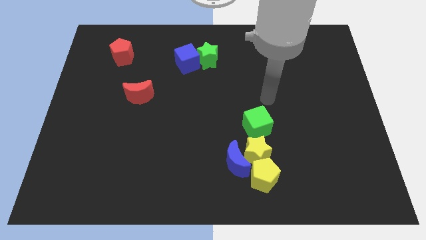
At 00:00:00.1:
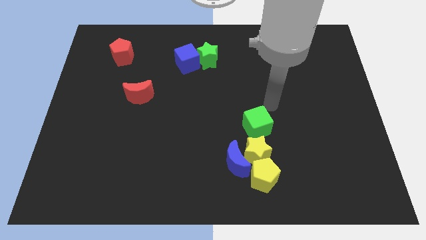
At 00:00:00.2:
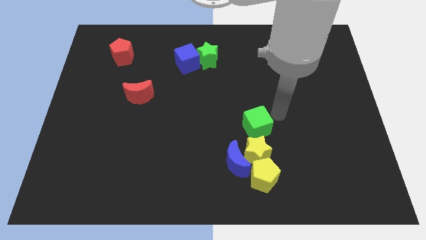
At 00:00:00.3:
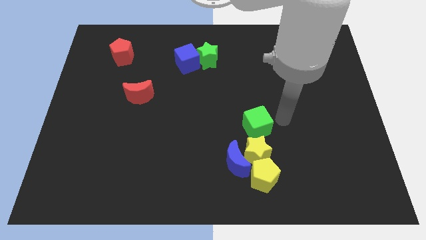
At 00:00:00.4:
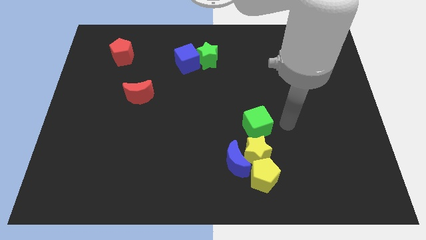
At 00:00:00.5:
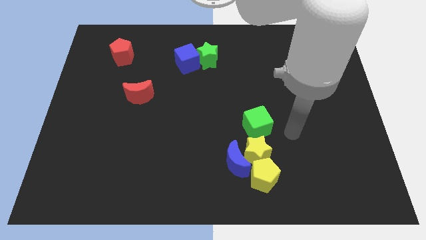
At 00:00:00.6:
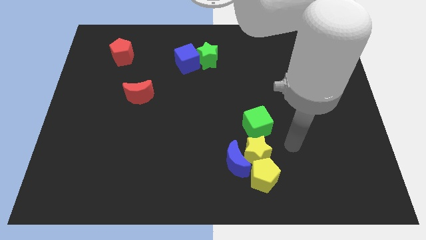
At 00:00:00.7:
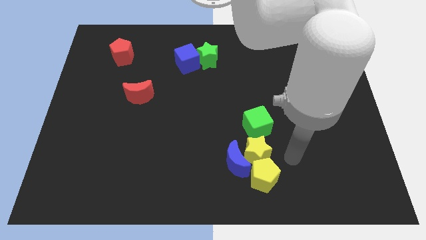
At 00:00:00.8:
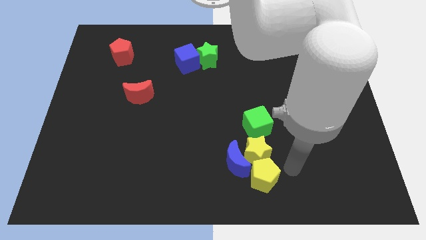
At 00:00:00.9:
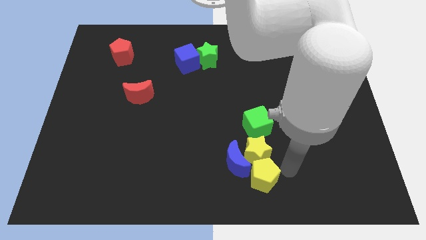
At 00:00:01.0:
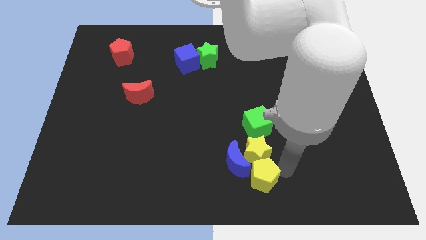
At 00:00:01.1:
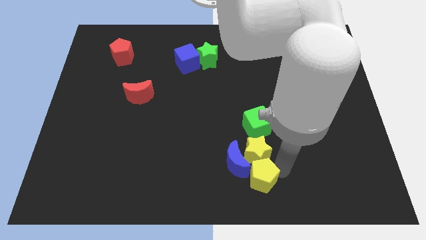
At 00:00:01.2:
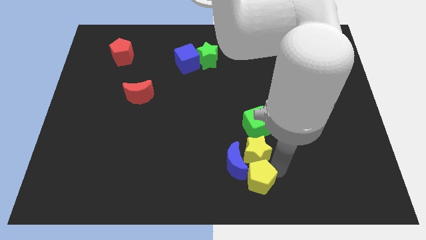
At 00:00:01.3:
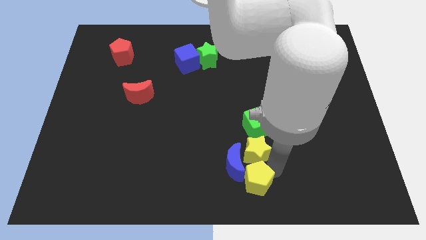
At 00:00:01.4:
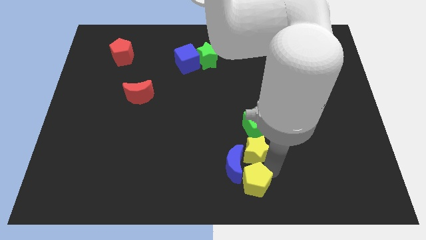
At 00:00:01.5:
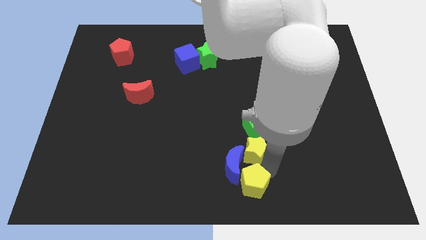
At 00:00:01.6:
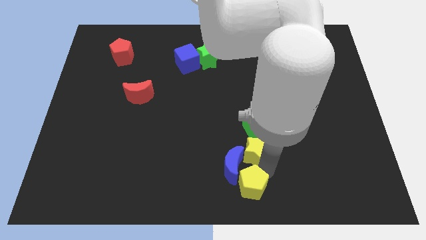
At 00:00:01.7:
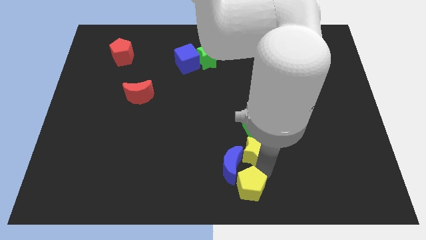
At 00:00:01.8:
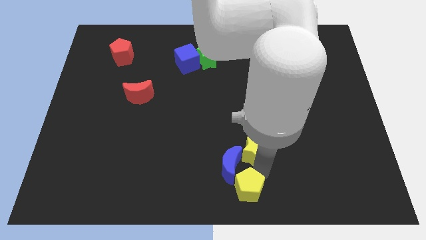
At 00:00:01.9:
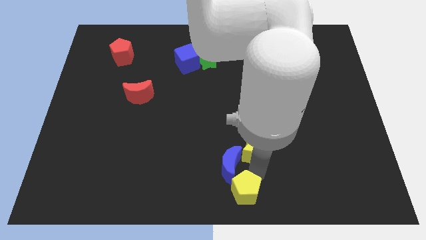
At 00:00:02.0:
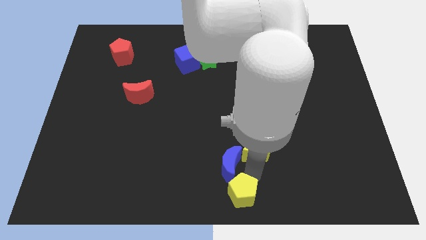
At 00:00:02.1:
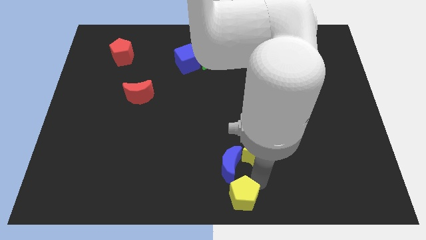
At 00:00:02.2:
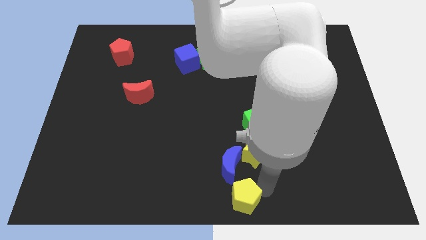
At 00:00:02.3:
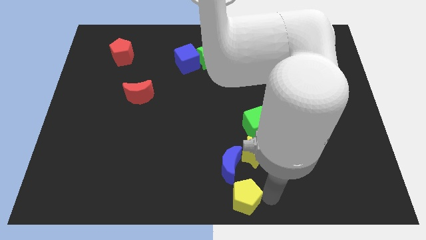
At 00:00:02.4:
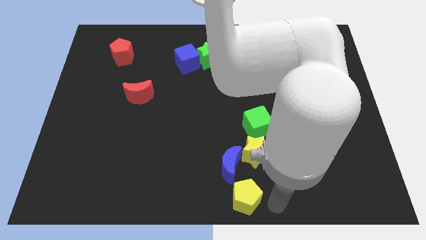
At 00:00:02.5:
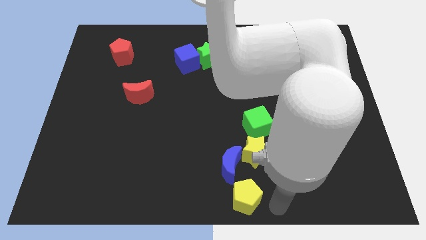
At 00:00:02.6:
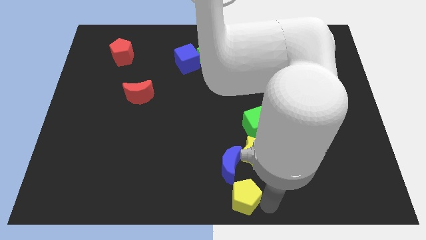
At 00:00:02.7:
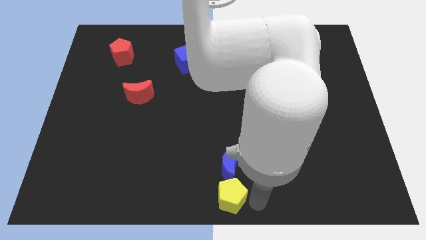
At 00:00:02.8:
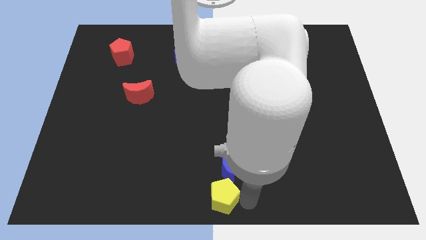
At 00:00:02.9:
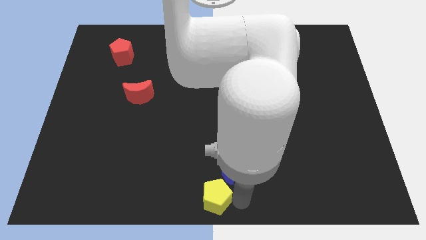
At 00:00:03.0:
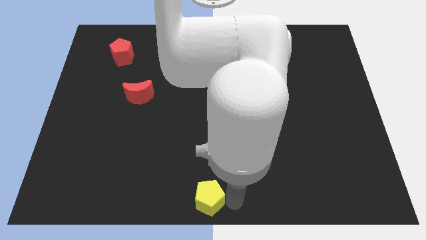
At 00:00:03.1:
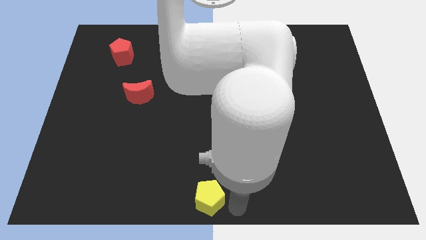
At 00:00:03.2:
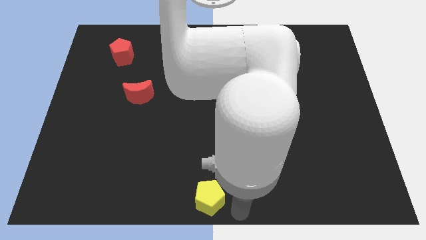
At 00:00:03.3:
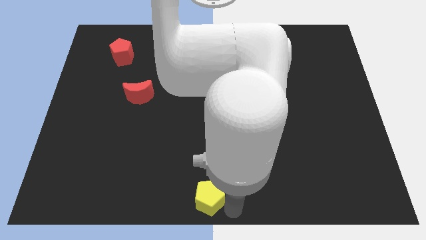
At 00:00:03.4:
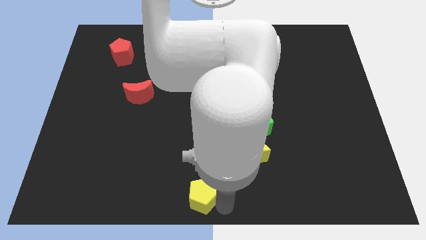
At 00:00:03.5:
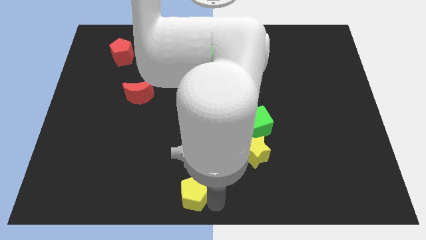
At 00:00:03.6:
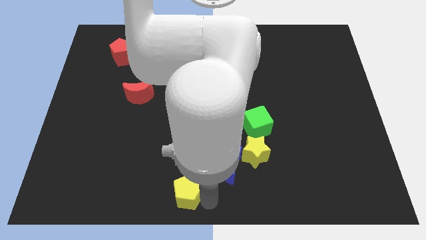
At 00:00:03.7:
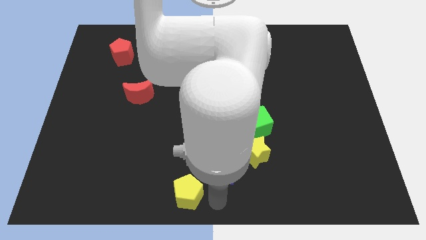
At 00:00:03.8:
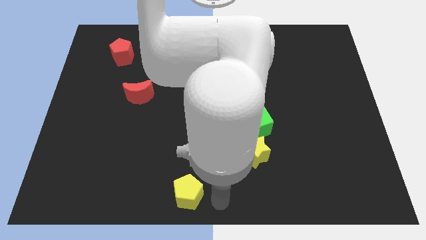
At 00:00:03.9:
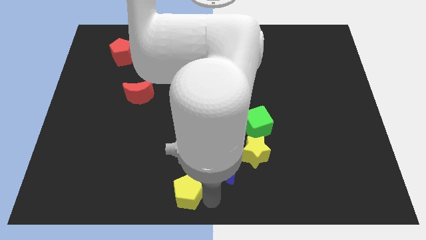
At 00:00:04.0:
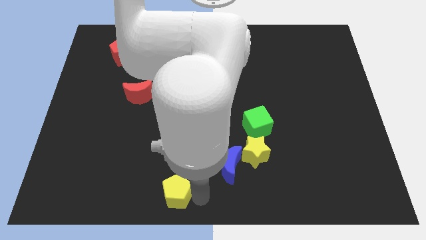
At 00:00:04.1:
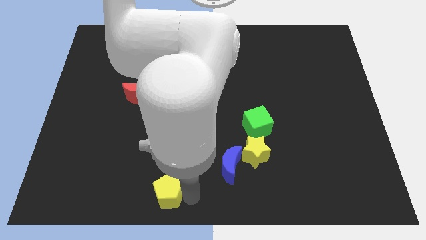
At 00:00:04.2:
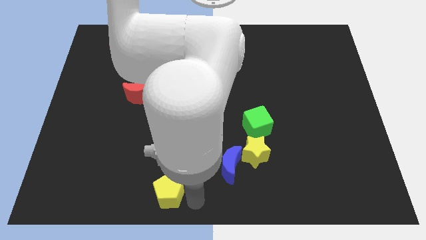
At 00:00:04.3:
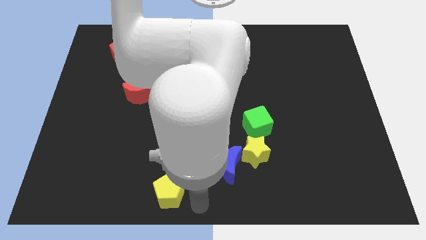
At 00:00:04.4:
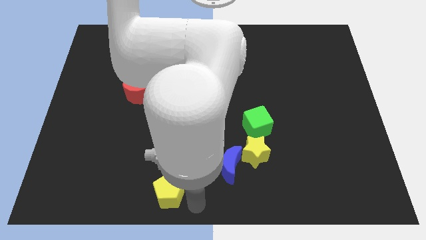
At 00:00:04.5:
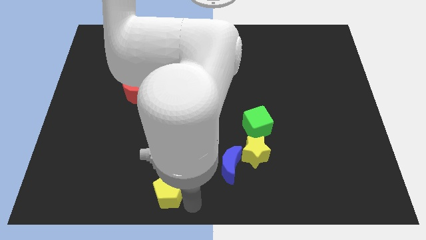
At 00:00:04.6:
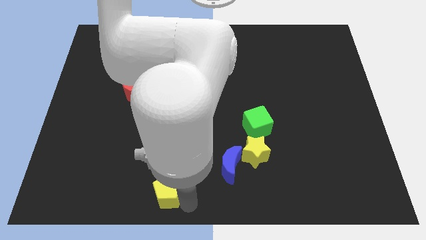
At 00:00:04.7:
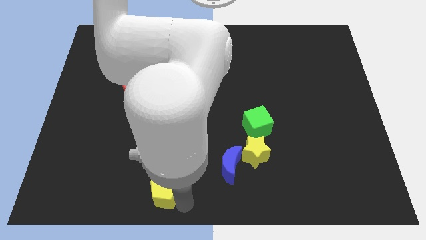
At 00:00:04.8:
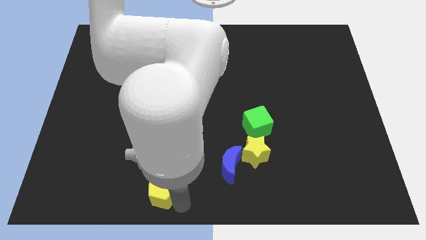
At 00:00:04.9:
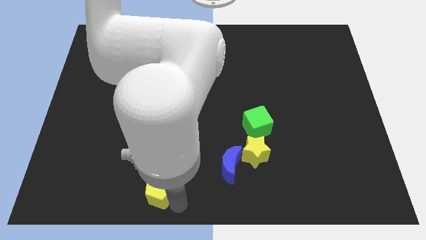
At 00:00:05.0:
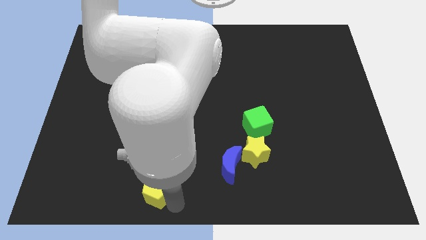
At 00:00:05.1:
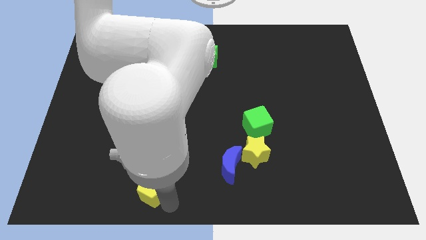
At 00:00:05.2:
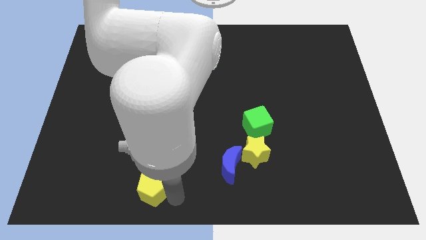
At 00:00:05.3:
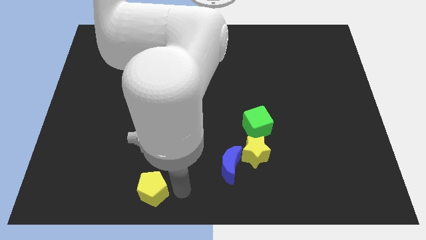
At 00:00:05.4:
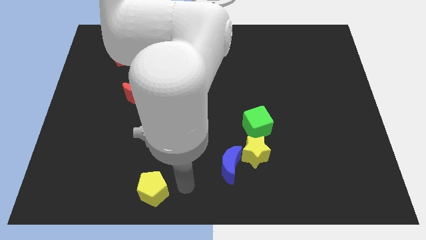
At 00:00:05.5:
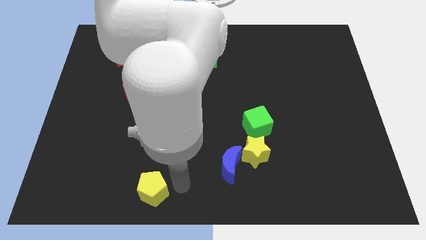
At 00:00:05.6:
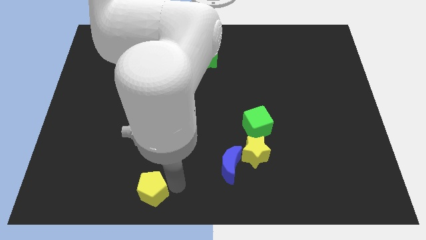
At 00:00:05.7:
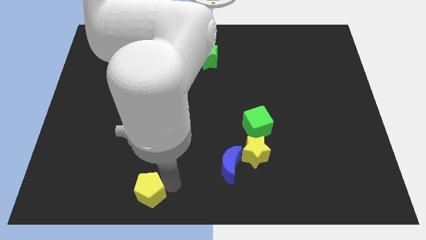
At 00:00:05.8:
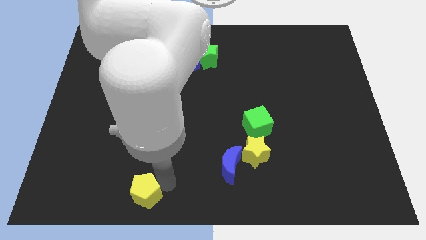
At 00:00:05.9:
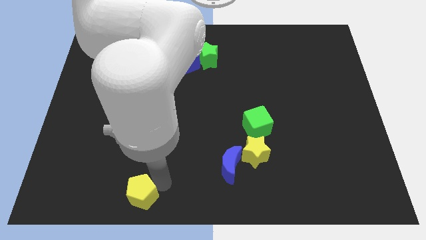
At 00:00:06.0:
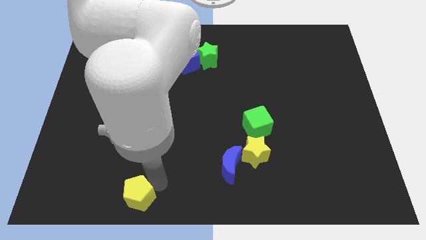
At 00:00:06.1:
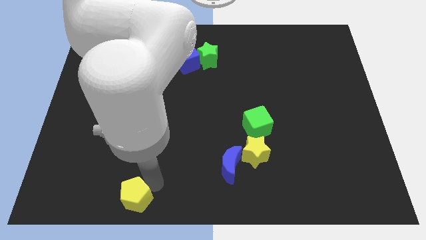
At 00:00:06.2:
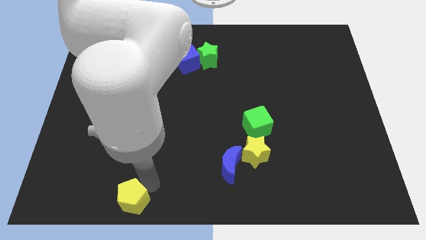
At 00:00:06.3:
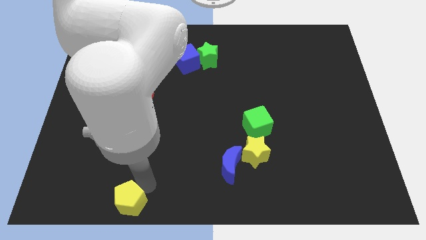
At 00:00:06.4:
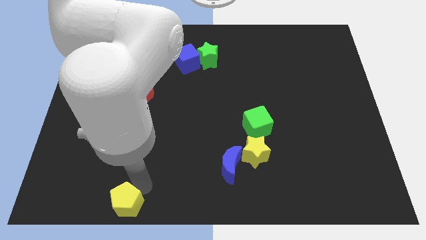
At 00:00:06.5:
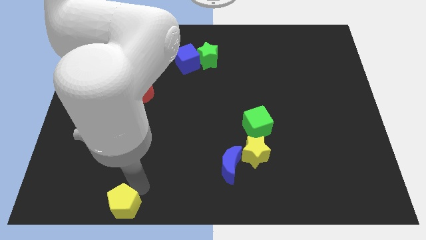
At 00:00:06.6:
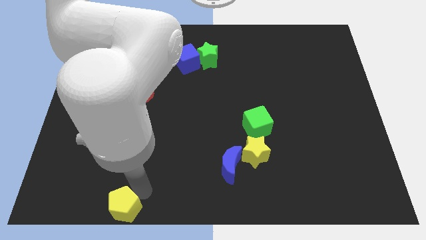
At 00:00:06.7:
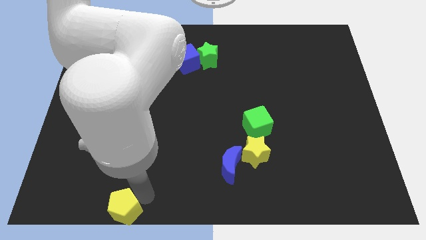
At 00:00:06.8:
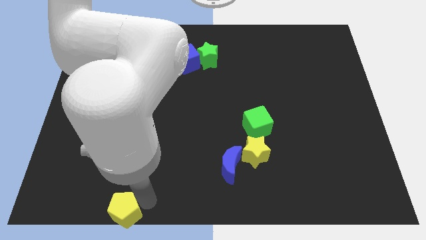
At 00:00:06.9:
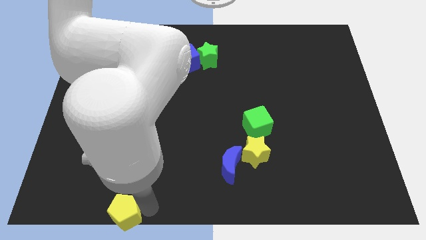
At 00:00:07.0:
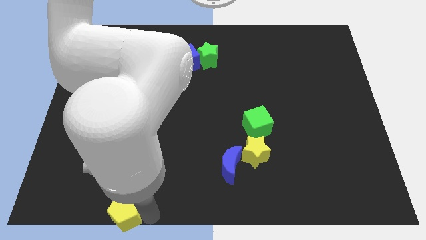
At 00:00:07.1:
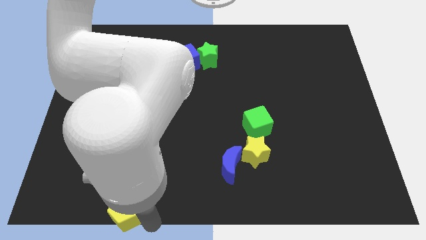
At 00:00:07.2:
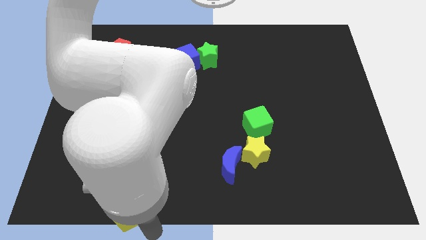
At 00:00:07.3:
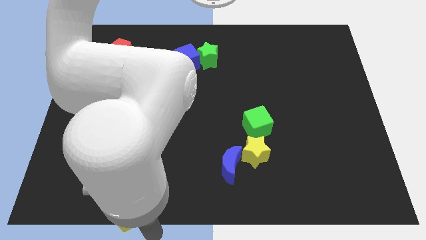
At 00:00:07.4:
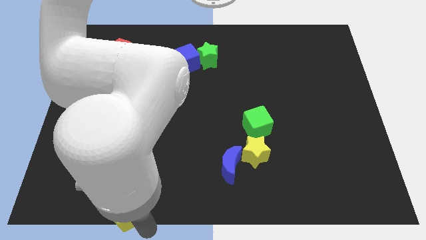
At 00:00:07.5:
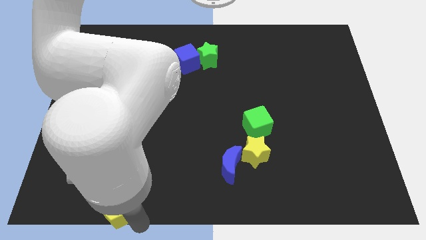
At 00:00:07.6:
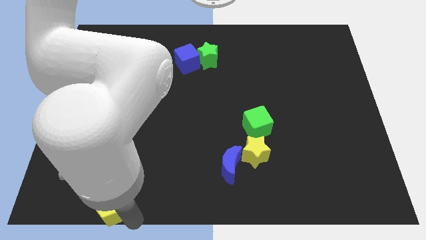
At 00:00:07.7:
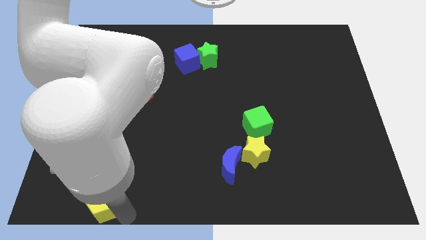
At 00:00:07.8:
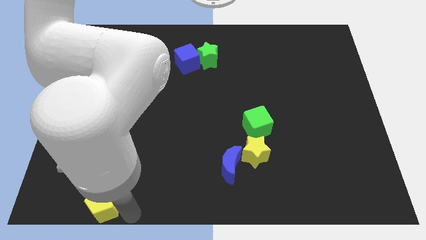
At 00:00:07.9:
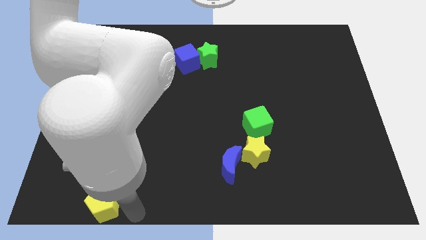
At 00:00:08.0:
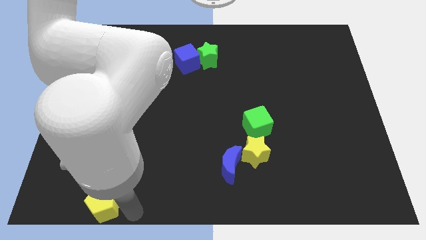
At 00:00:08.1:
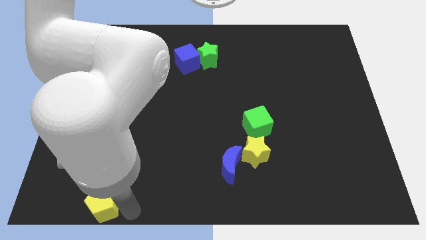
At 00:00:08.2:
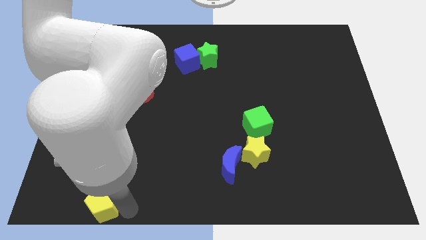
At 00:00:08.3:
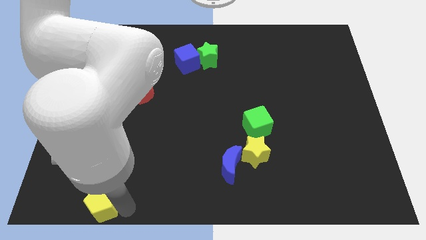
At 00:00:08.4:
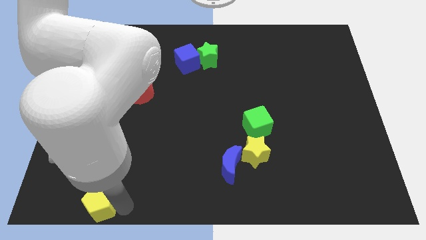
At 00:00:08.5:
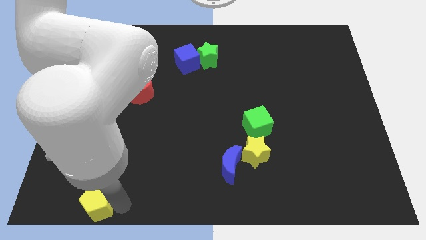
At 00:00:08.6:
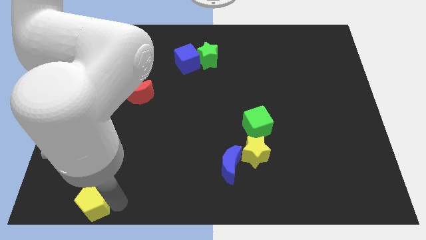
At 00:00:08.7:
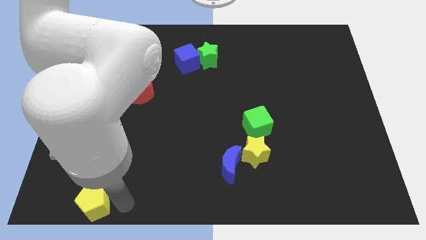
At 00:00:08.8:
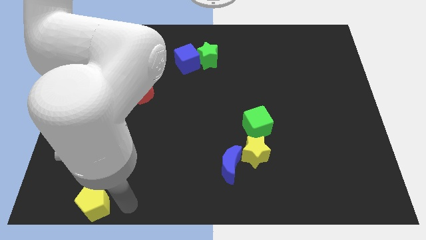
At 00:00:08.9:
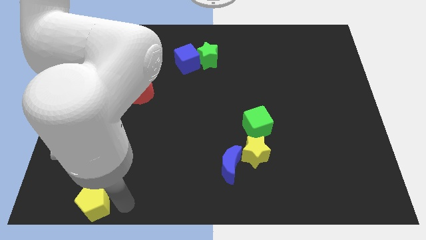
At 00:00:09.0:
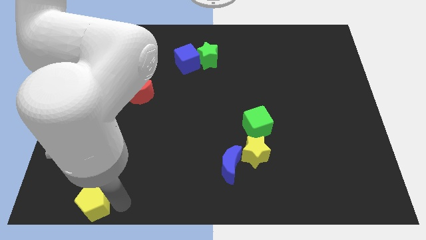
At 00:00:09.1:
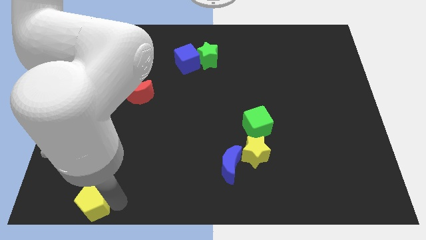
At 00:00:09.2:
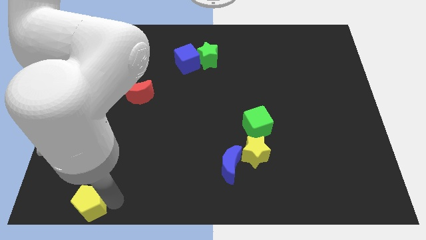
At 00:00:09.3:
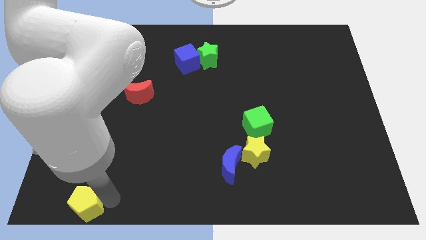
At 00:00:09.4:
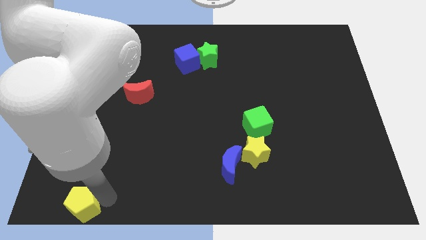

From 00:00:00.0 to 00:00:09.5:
push the yellow pentagon to the lower left corner
